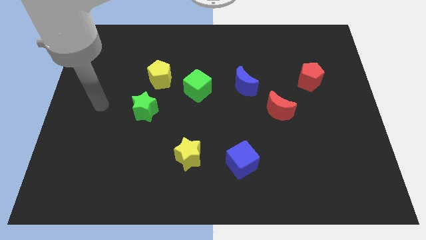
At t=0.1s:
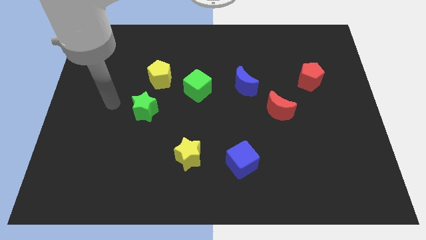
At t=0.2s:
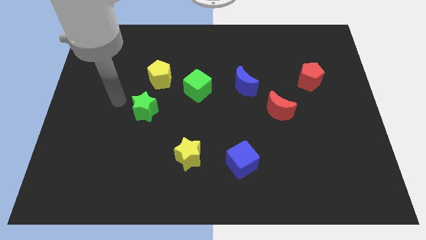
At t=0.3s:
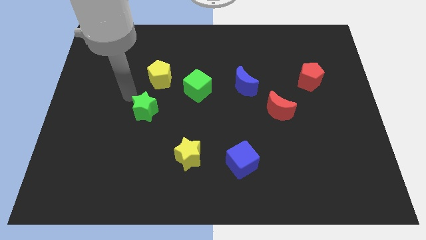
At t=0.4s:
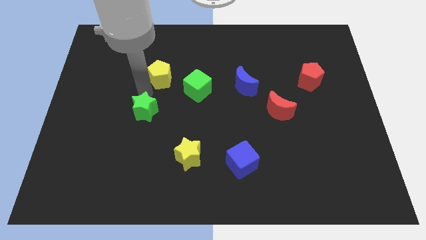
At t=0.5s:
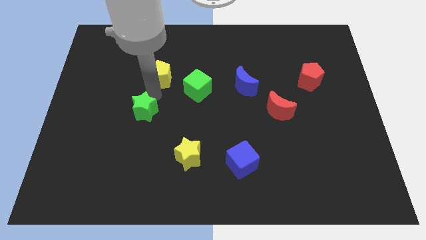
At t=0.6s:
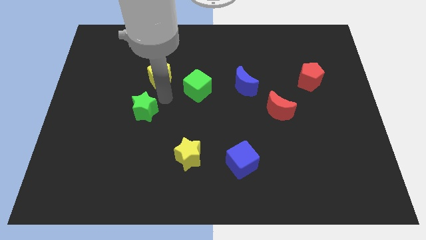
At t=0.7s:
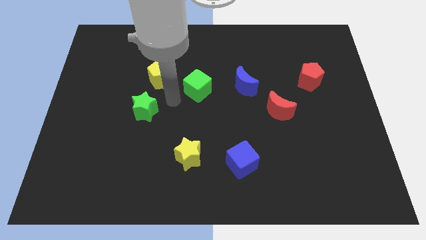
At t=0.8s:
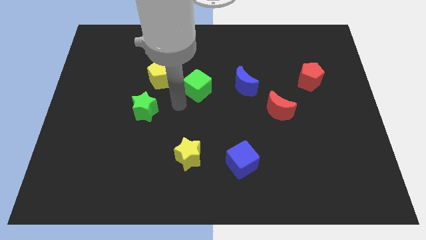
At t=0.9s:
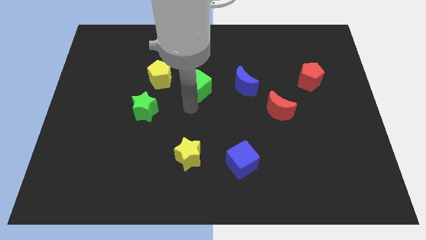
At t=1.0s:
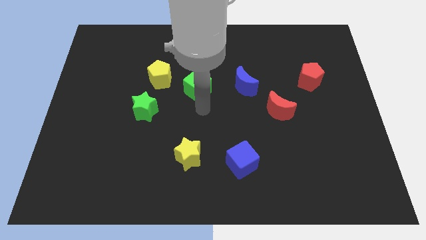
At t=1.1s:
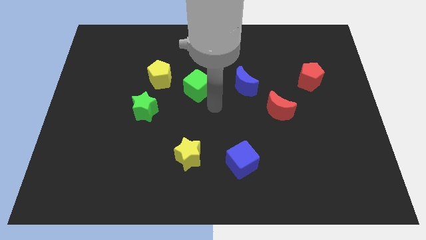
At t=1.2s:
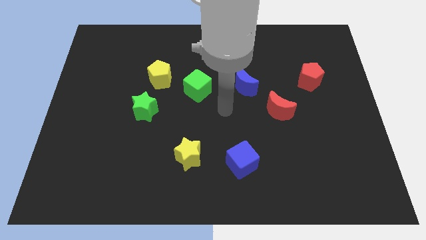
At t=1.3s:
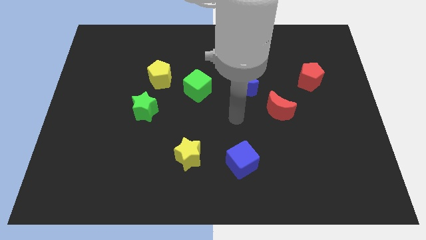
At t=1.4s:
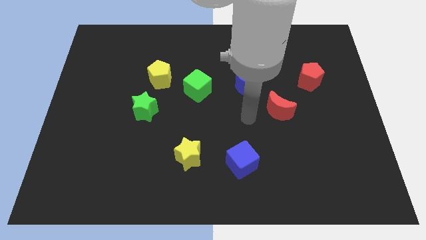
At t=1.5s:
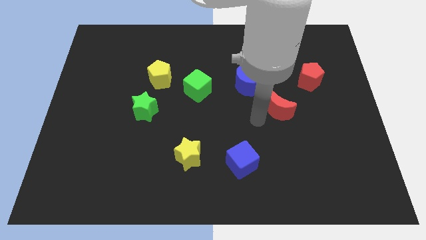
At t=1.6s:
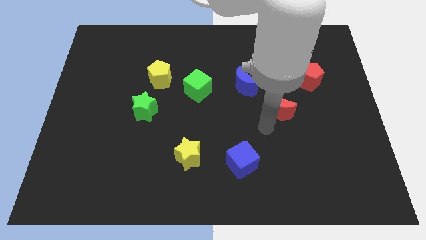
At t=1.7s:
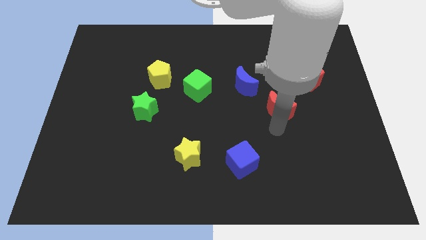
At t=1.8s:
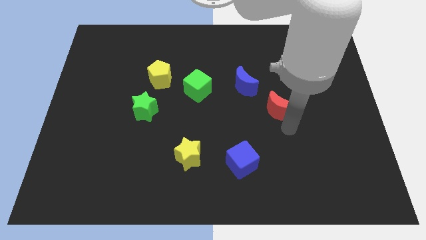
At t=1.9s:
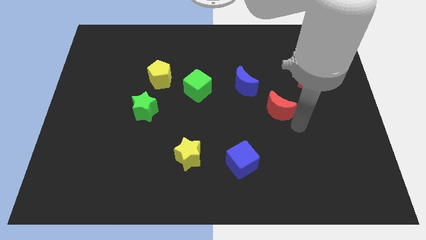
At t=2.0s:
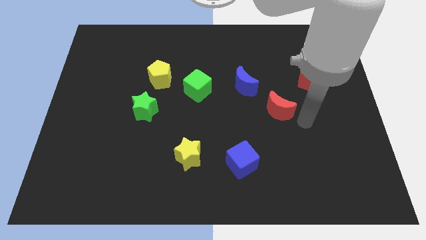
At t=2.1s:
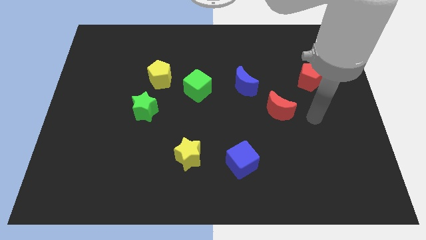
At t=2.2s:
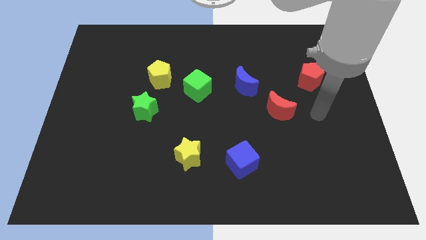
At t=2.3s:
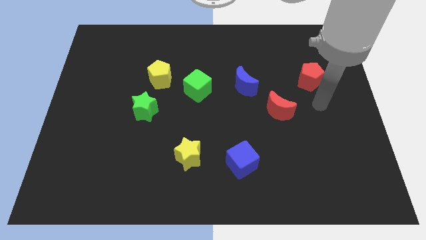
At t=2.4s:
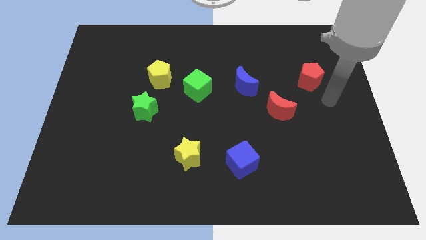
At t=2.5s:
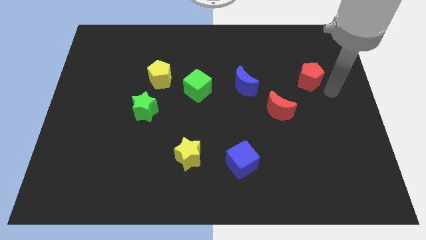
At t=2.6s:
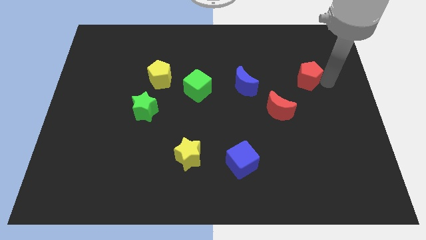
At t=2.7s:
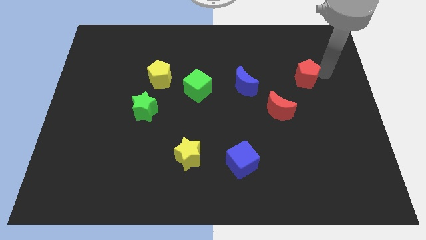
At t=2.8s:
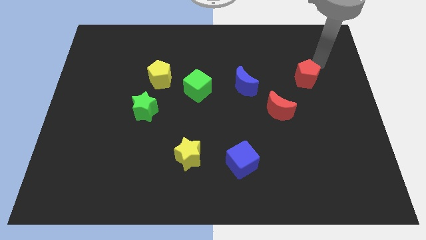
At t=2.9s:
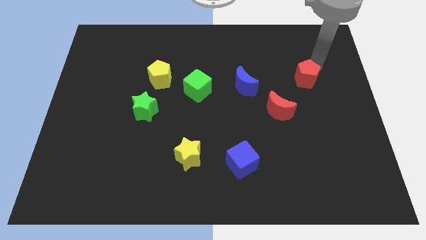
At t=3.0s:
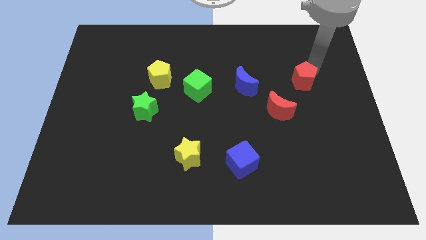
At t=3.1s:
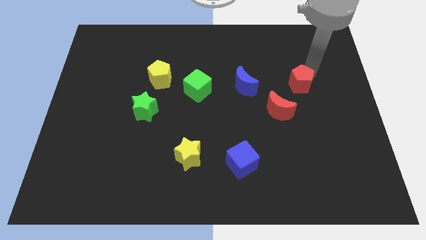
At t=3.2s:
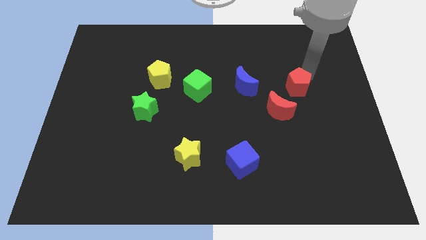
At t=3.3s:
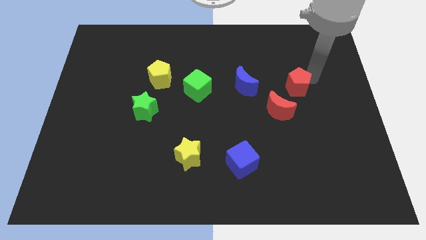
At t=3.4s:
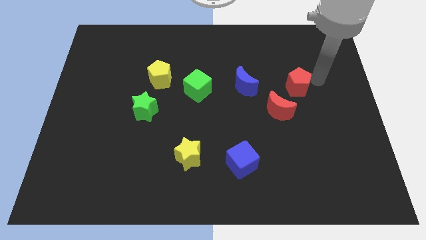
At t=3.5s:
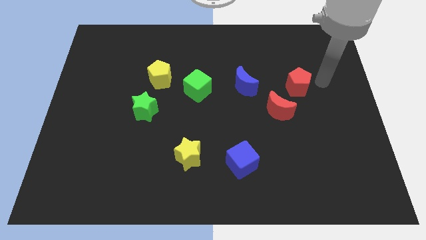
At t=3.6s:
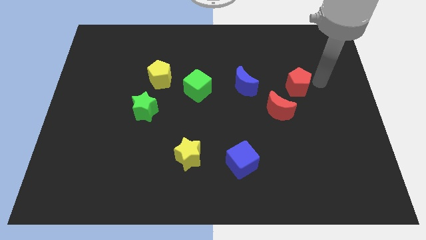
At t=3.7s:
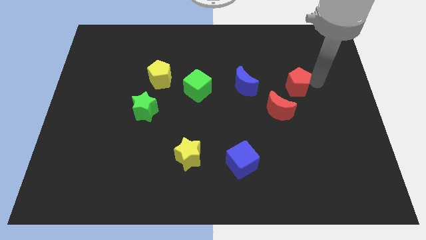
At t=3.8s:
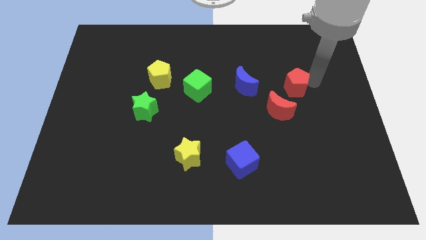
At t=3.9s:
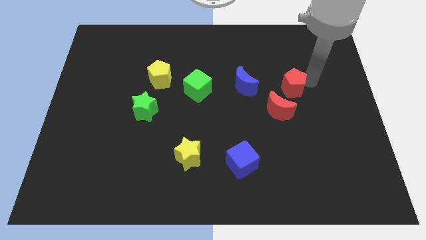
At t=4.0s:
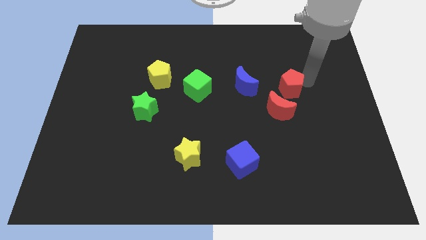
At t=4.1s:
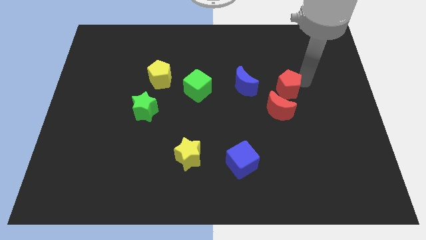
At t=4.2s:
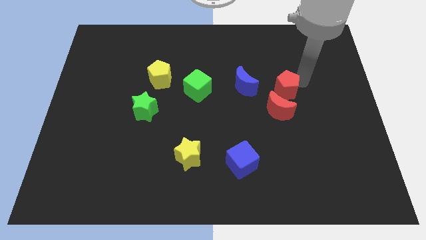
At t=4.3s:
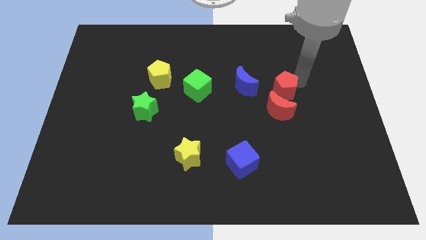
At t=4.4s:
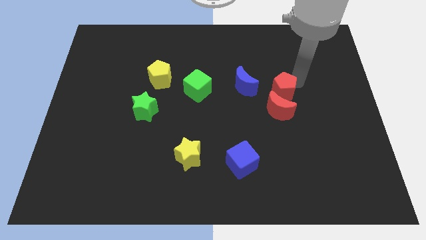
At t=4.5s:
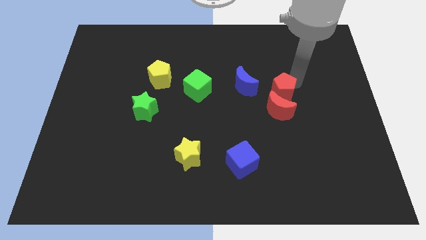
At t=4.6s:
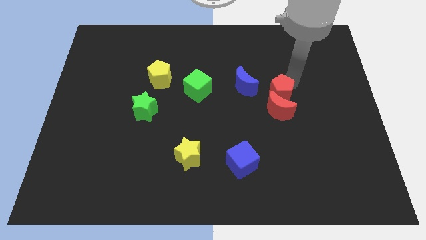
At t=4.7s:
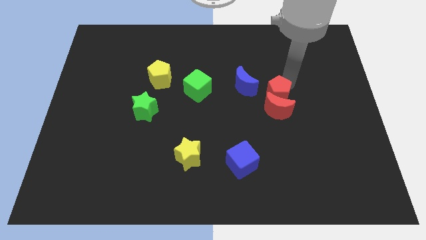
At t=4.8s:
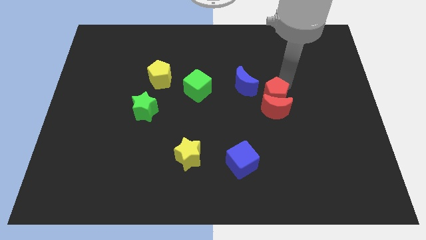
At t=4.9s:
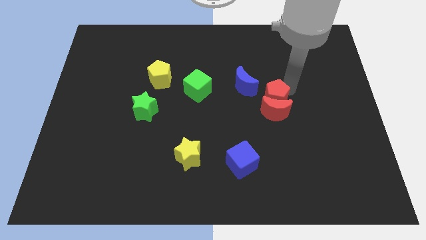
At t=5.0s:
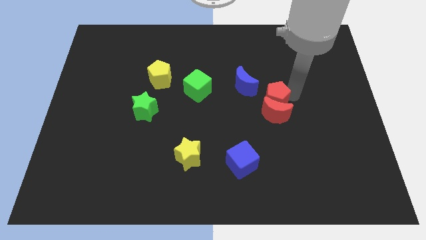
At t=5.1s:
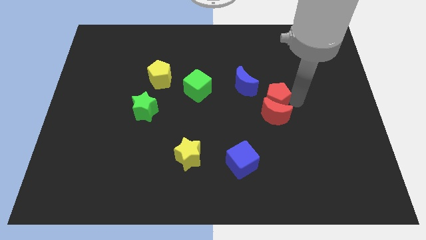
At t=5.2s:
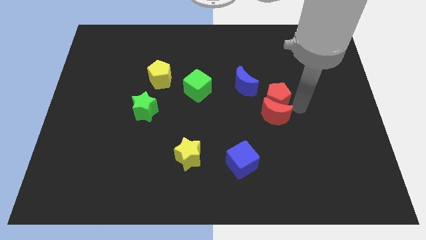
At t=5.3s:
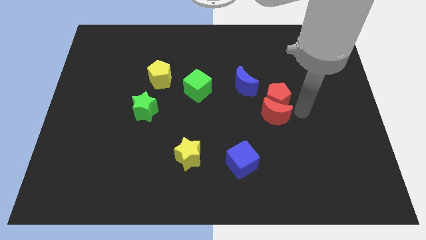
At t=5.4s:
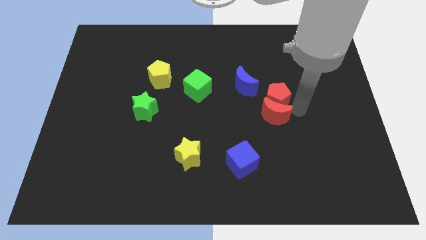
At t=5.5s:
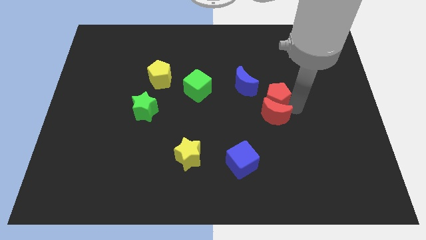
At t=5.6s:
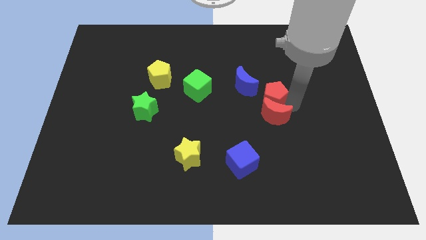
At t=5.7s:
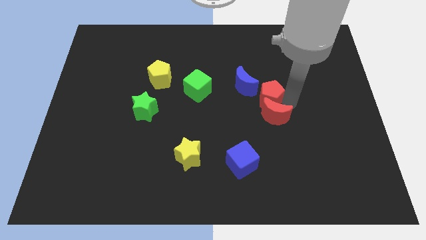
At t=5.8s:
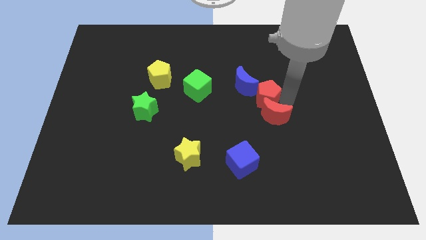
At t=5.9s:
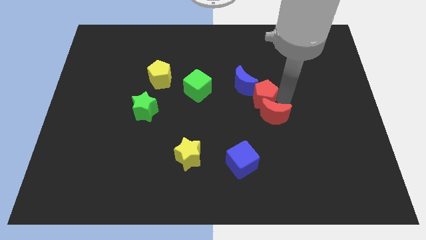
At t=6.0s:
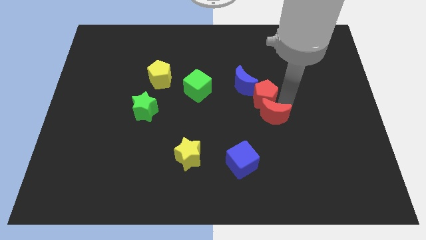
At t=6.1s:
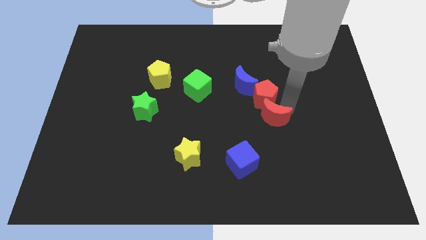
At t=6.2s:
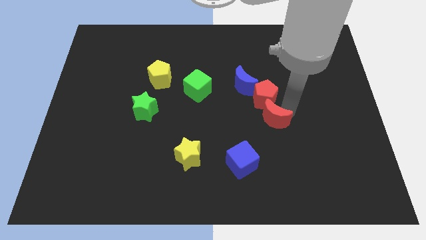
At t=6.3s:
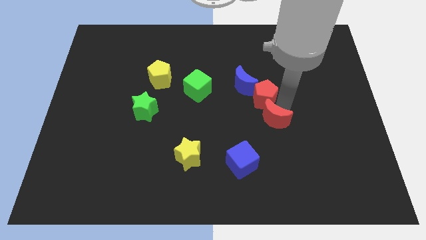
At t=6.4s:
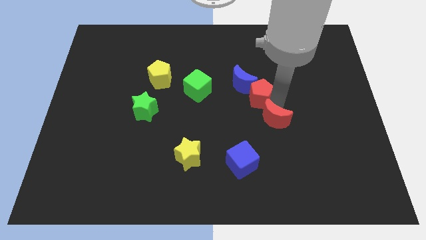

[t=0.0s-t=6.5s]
move the red pentagon to the blue moon

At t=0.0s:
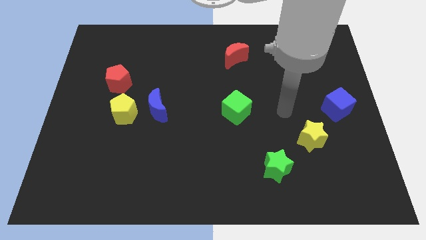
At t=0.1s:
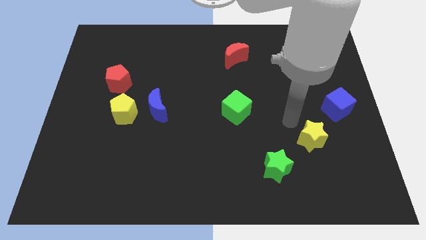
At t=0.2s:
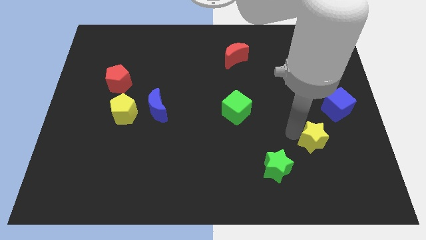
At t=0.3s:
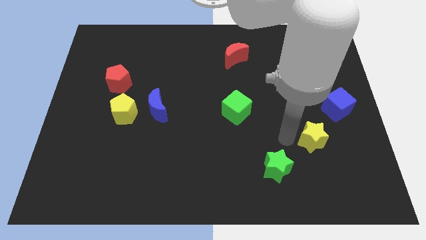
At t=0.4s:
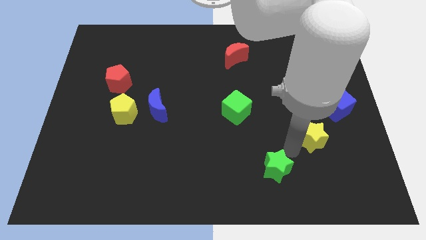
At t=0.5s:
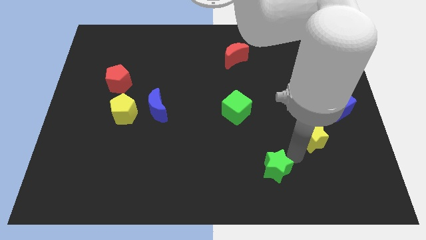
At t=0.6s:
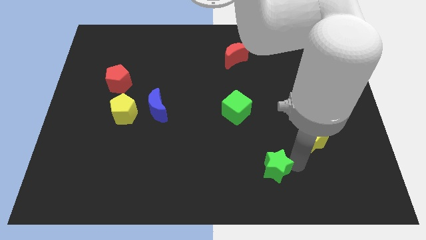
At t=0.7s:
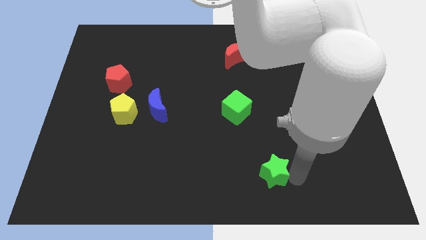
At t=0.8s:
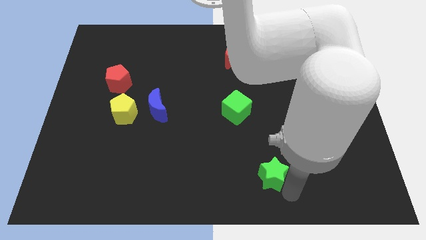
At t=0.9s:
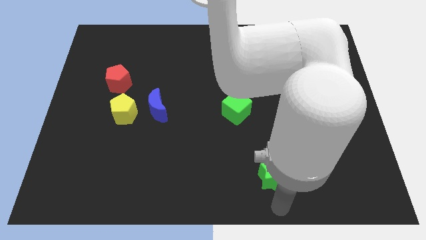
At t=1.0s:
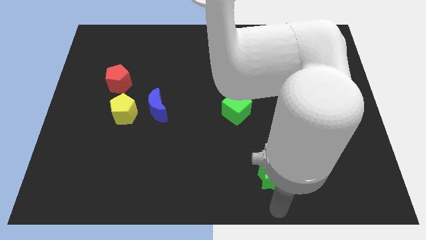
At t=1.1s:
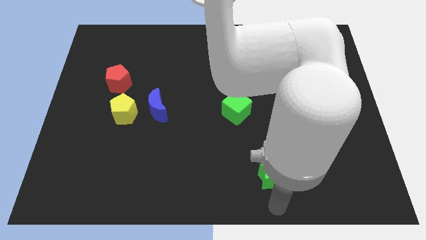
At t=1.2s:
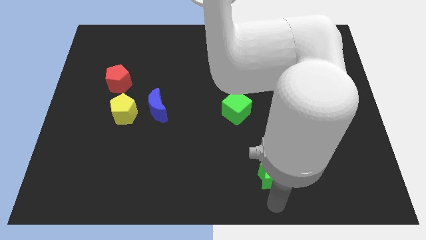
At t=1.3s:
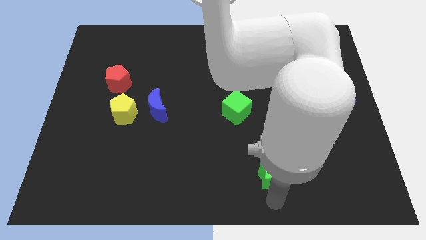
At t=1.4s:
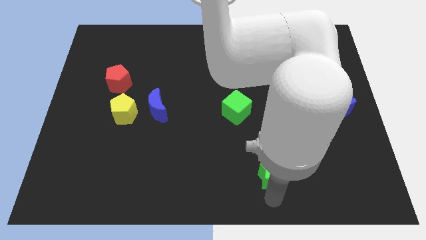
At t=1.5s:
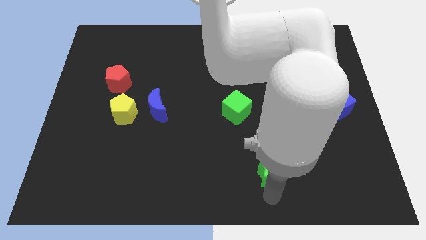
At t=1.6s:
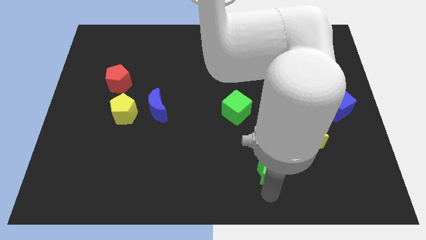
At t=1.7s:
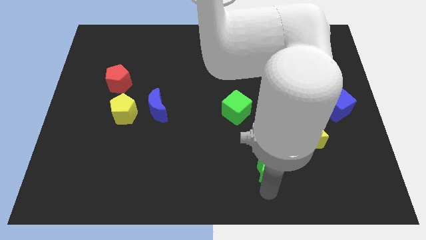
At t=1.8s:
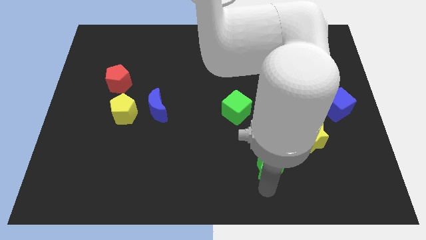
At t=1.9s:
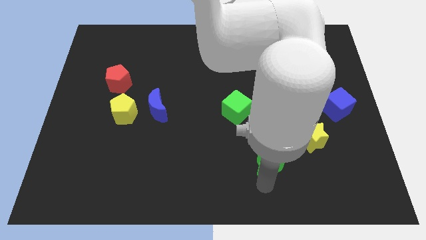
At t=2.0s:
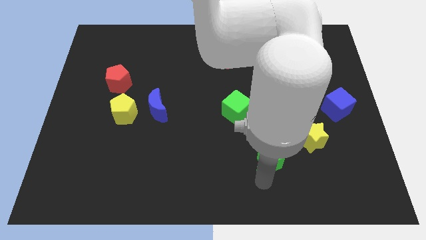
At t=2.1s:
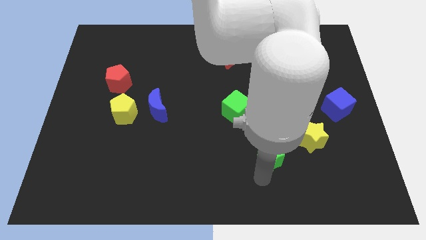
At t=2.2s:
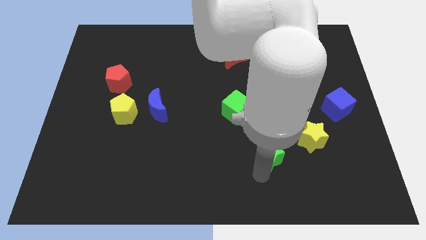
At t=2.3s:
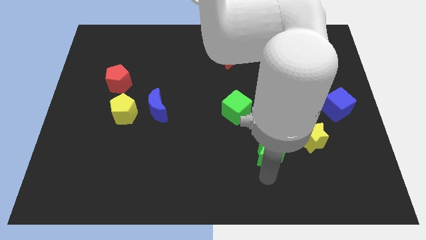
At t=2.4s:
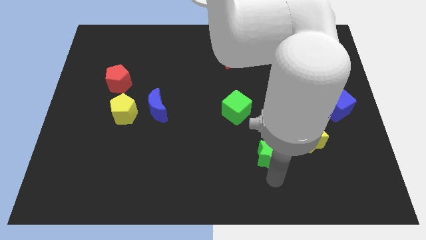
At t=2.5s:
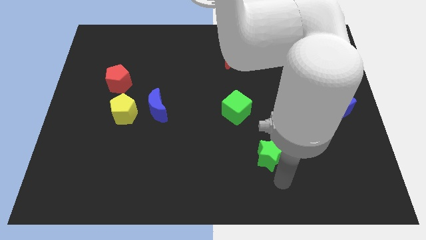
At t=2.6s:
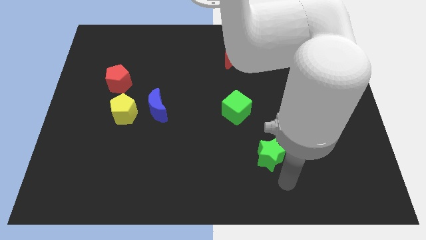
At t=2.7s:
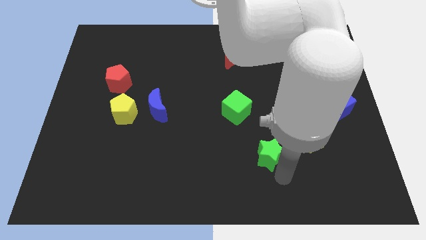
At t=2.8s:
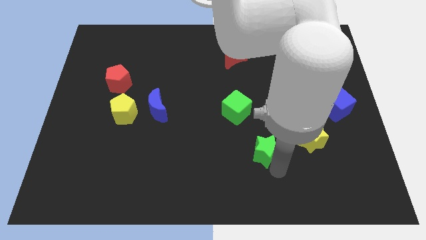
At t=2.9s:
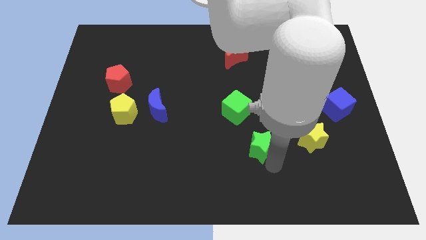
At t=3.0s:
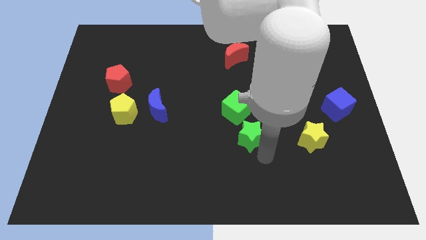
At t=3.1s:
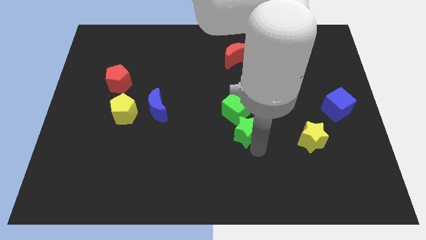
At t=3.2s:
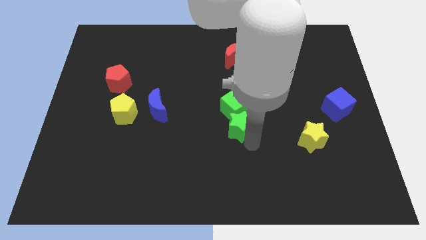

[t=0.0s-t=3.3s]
push the green star towards the green cube
